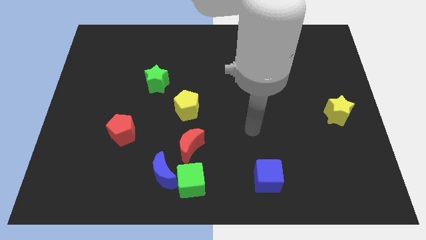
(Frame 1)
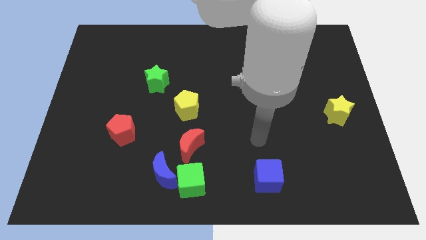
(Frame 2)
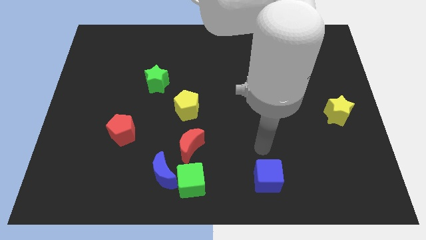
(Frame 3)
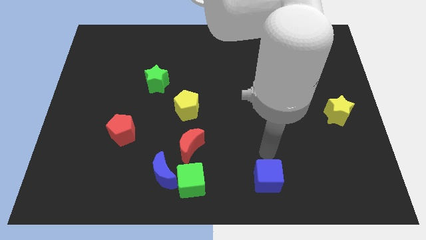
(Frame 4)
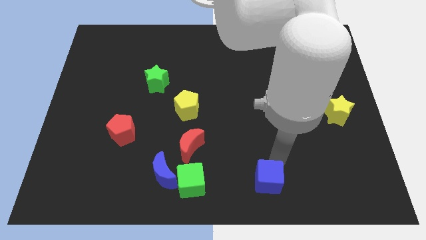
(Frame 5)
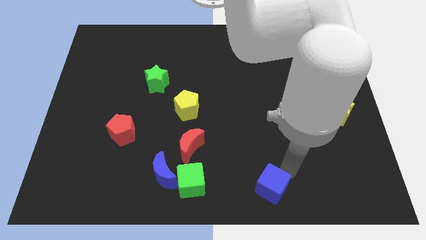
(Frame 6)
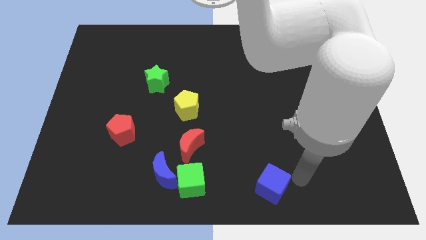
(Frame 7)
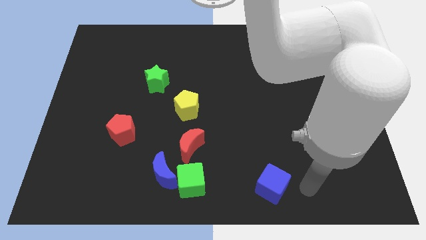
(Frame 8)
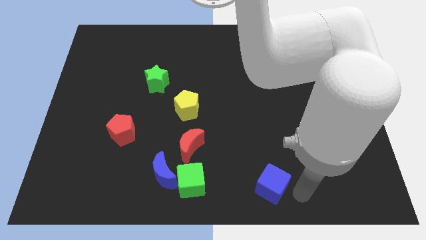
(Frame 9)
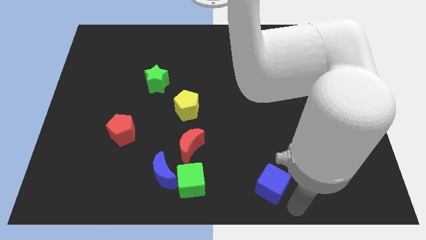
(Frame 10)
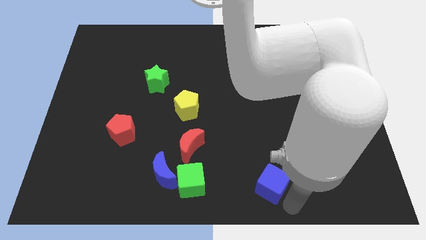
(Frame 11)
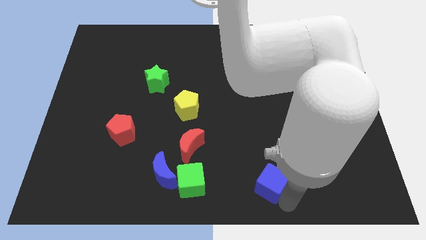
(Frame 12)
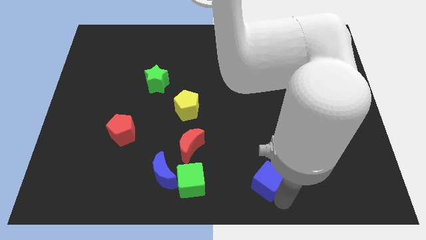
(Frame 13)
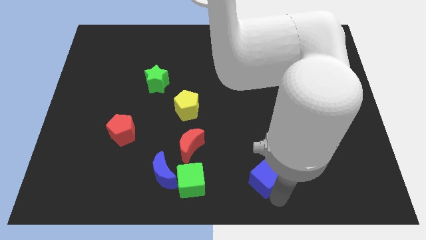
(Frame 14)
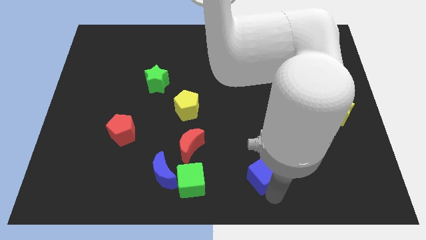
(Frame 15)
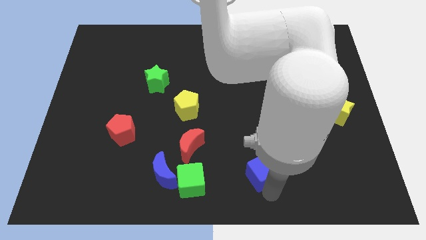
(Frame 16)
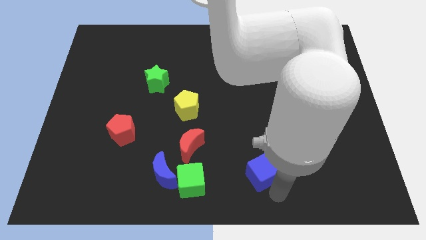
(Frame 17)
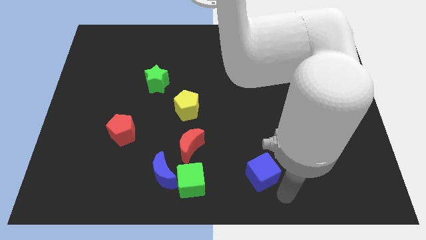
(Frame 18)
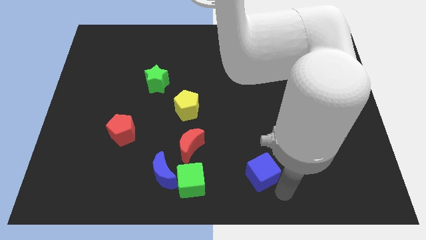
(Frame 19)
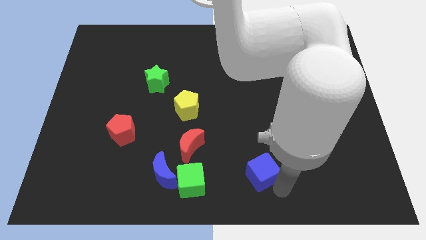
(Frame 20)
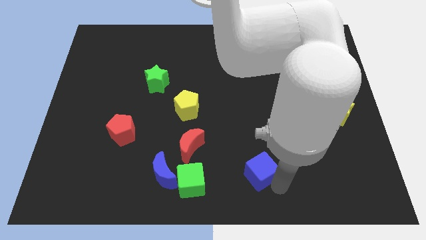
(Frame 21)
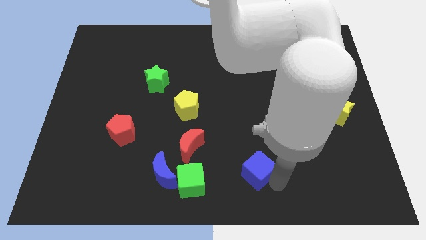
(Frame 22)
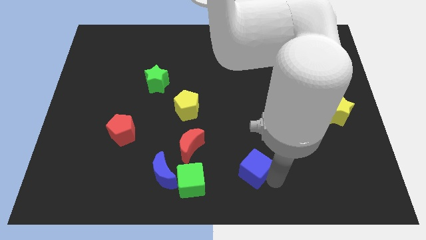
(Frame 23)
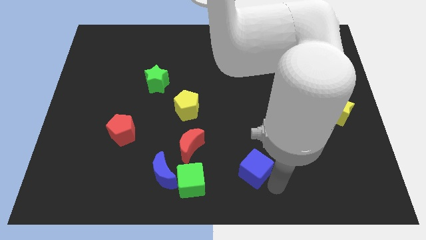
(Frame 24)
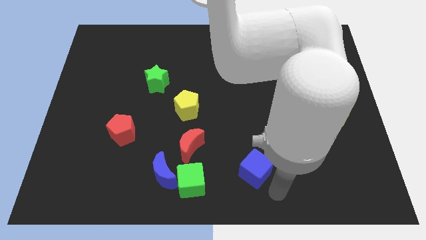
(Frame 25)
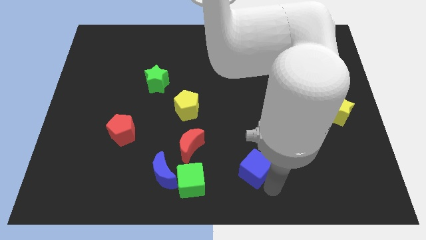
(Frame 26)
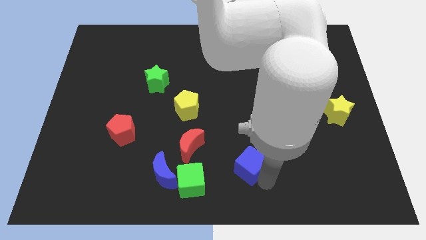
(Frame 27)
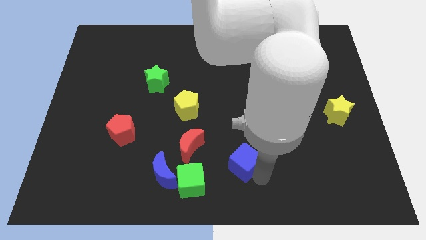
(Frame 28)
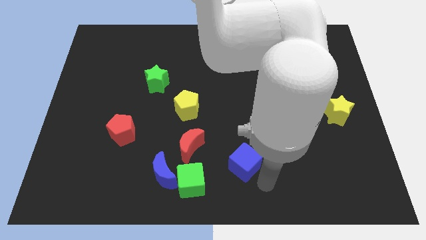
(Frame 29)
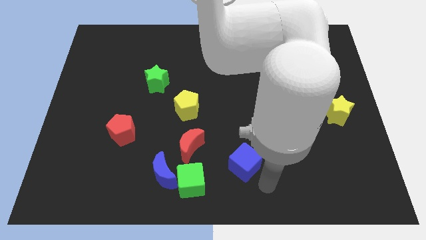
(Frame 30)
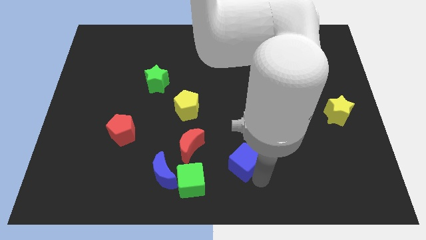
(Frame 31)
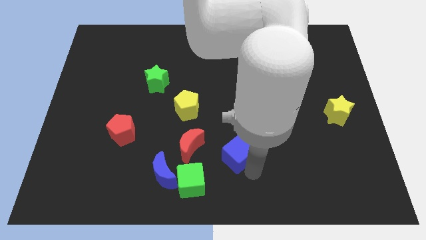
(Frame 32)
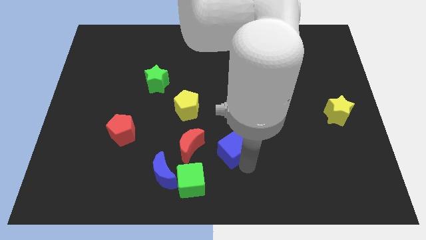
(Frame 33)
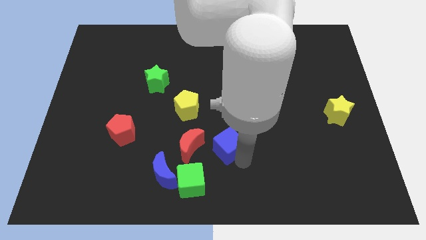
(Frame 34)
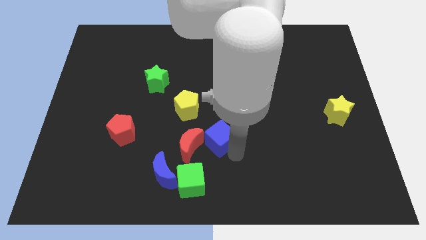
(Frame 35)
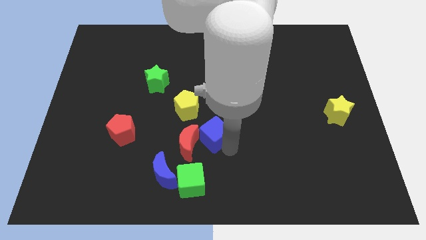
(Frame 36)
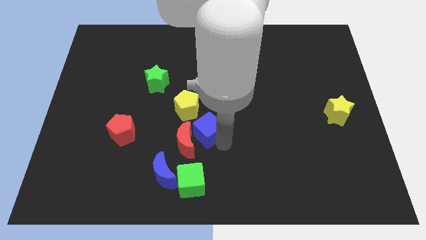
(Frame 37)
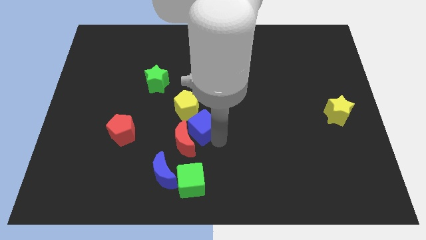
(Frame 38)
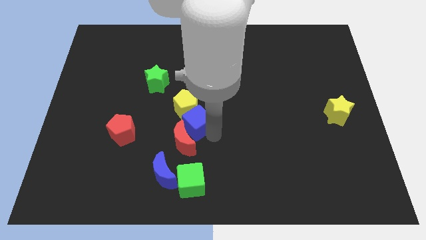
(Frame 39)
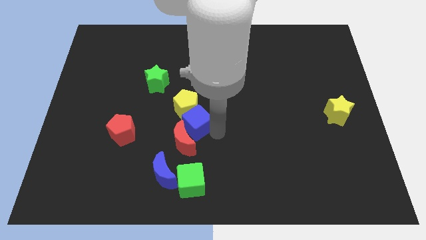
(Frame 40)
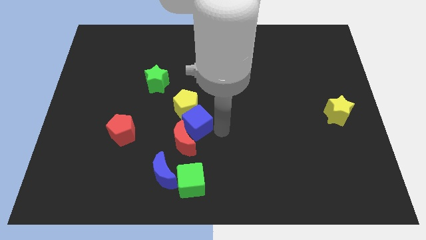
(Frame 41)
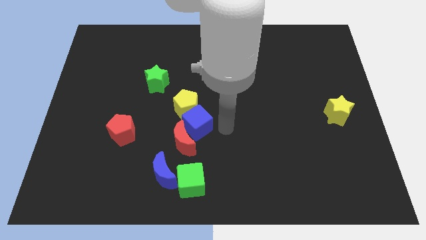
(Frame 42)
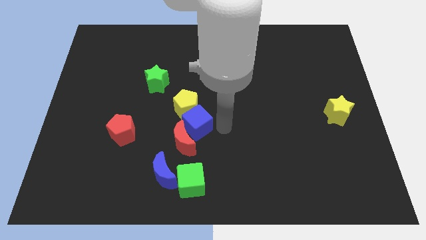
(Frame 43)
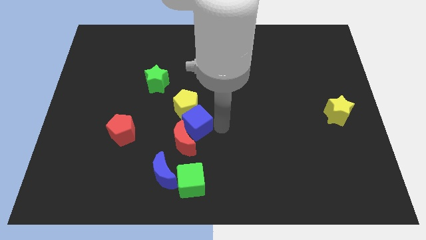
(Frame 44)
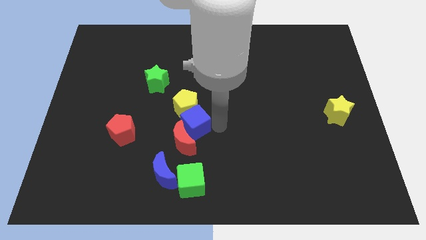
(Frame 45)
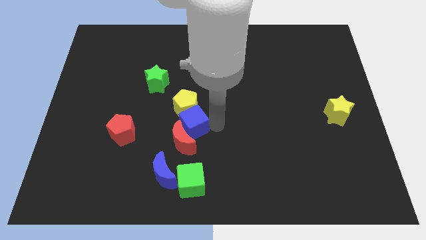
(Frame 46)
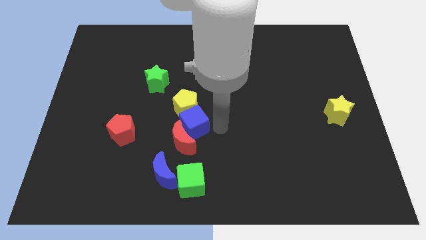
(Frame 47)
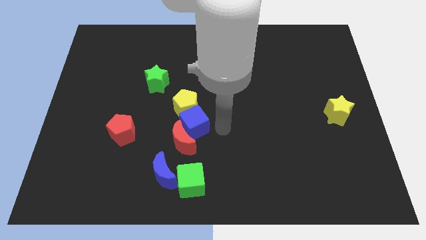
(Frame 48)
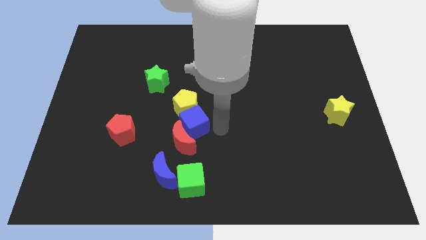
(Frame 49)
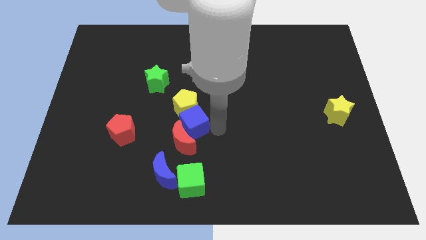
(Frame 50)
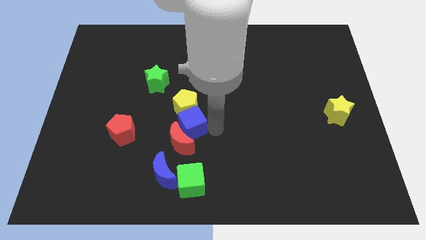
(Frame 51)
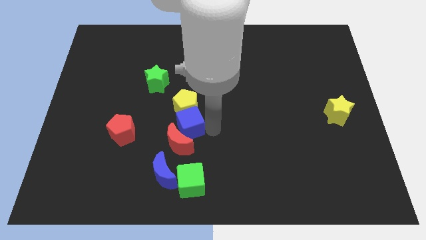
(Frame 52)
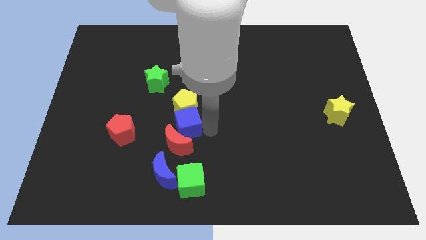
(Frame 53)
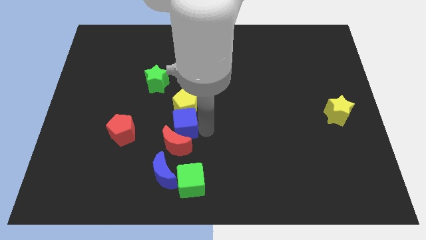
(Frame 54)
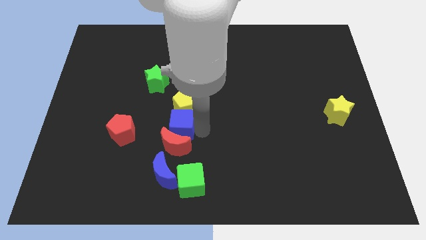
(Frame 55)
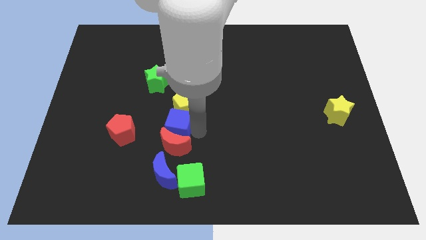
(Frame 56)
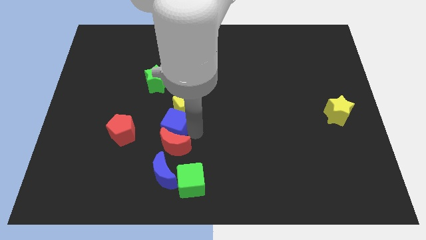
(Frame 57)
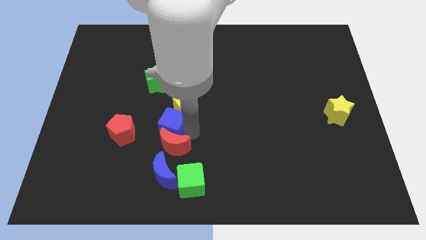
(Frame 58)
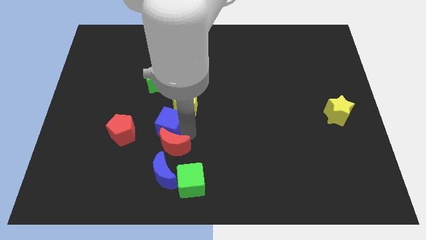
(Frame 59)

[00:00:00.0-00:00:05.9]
slide the blue cube to the bottom of the green star
